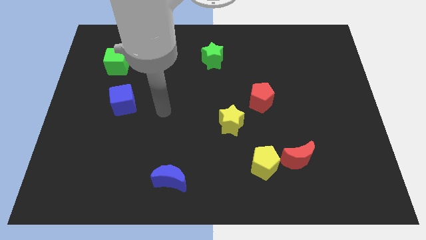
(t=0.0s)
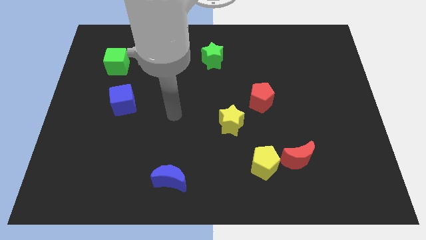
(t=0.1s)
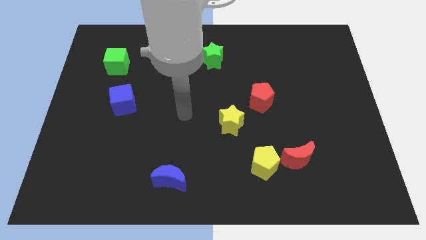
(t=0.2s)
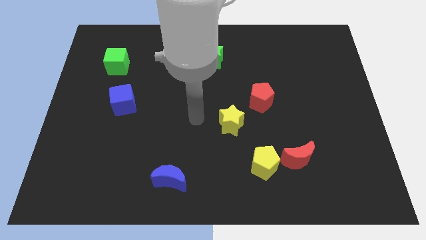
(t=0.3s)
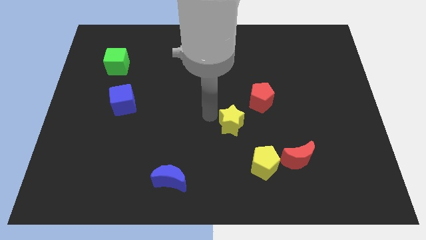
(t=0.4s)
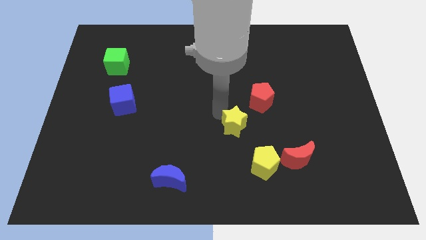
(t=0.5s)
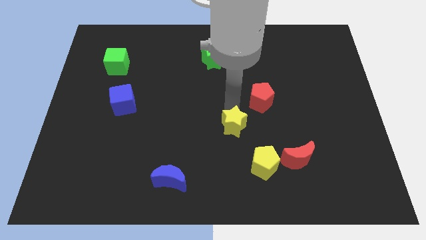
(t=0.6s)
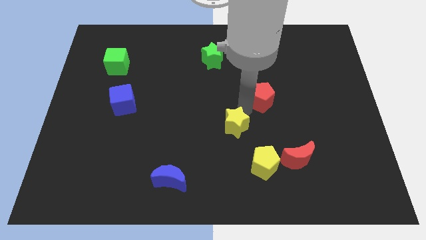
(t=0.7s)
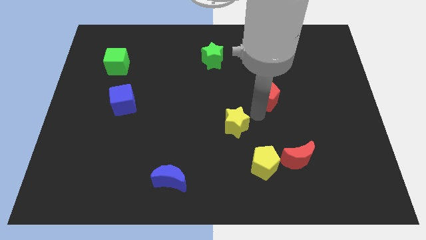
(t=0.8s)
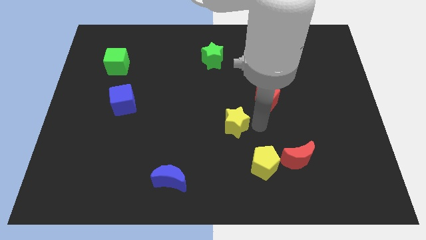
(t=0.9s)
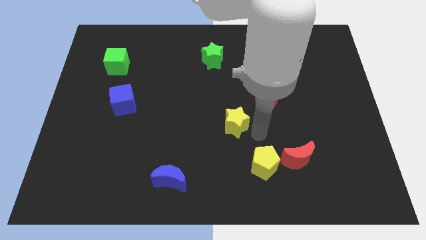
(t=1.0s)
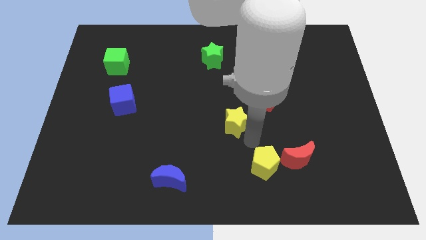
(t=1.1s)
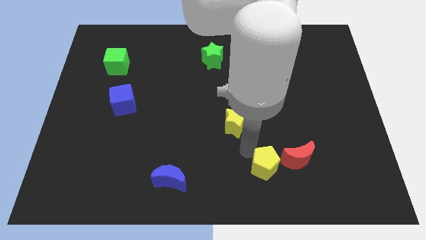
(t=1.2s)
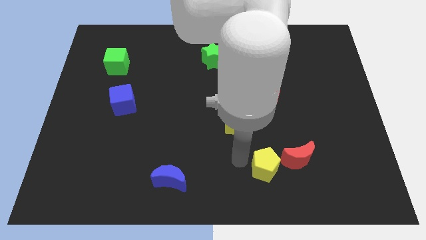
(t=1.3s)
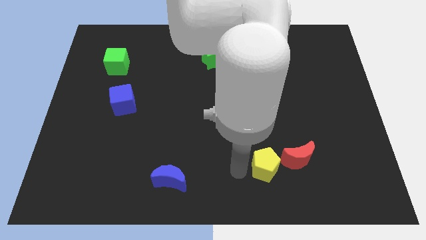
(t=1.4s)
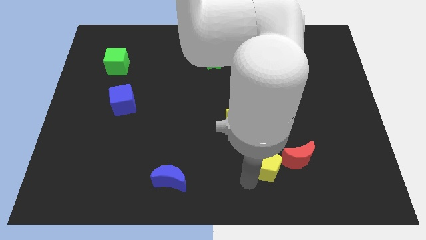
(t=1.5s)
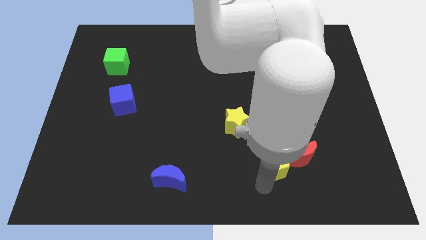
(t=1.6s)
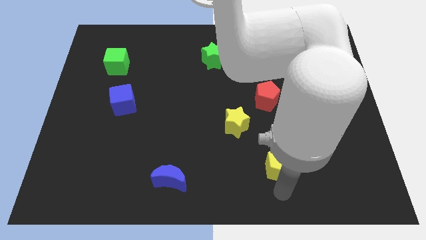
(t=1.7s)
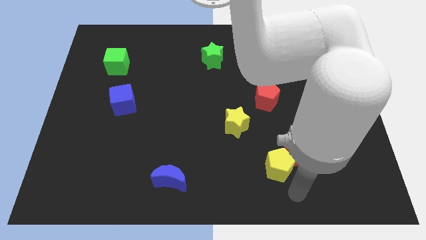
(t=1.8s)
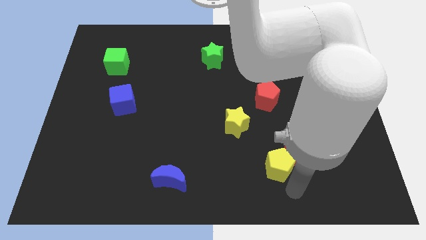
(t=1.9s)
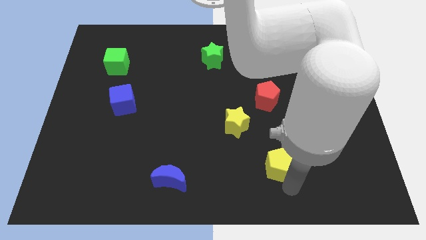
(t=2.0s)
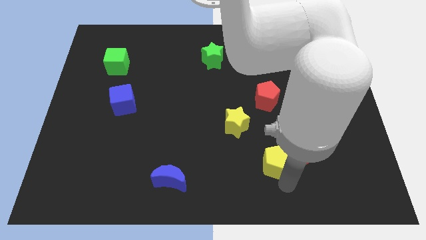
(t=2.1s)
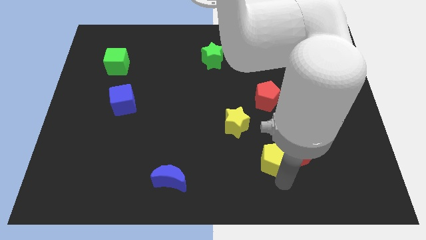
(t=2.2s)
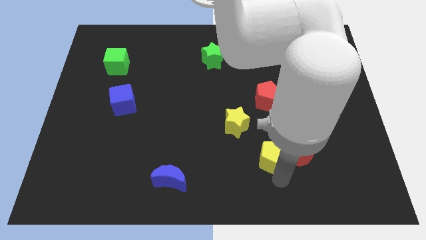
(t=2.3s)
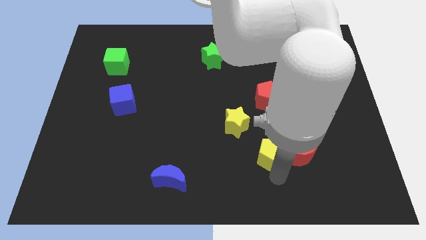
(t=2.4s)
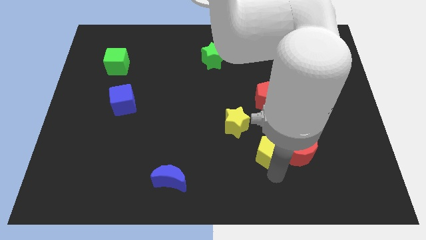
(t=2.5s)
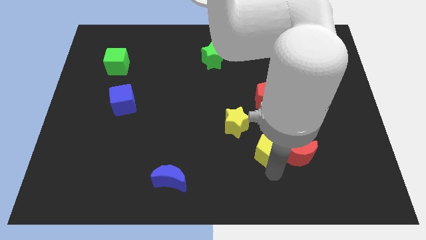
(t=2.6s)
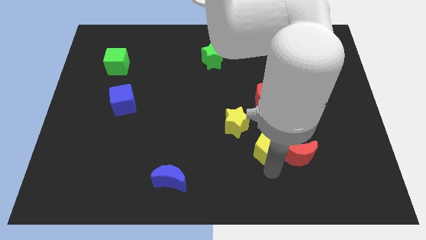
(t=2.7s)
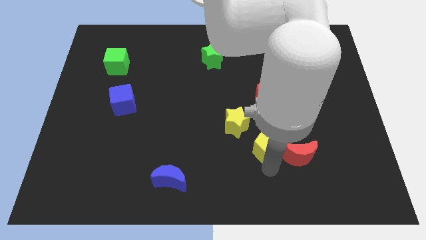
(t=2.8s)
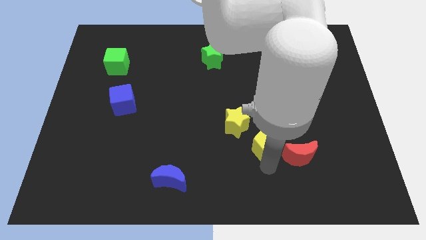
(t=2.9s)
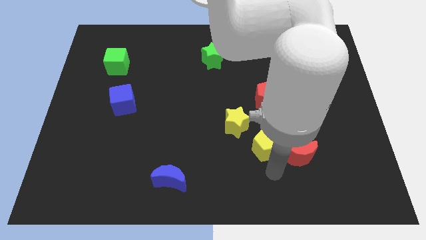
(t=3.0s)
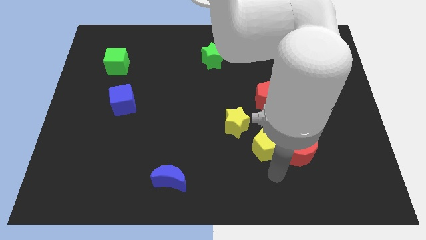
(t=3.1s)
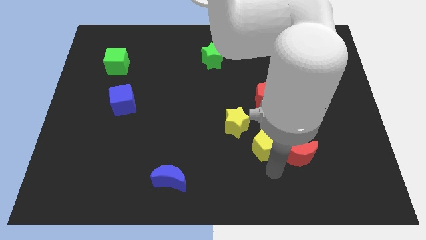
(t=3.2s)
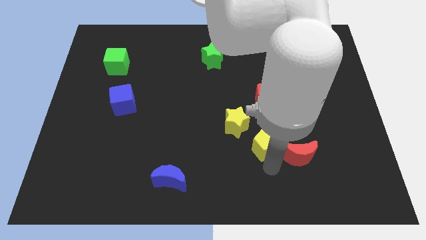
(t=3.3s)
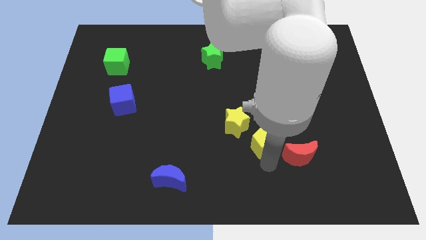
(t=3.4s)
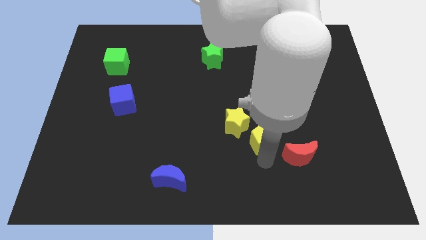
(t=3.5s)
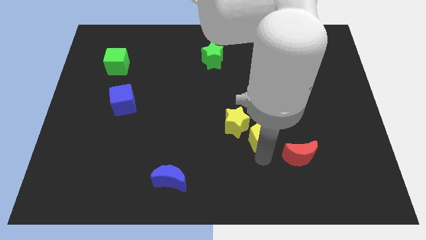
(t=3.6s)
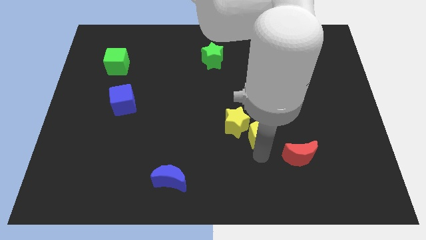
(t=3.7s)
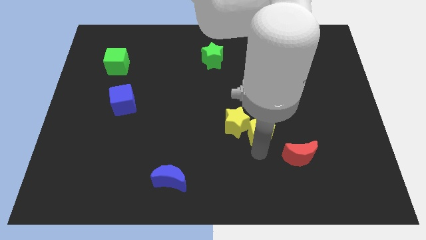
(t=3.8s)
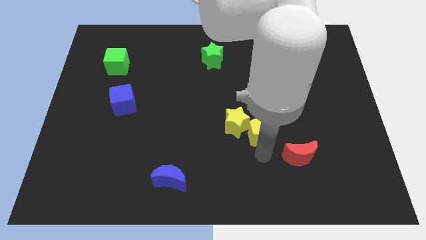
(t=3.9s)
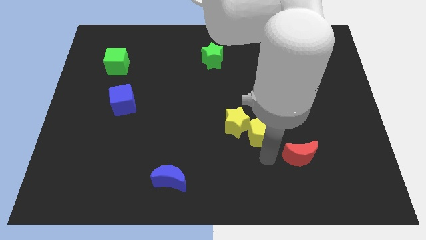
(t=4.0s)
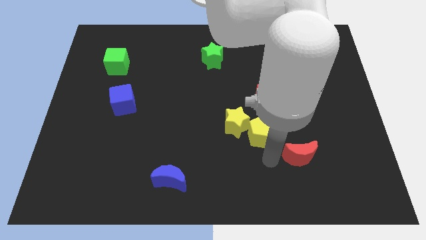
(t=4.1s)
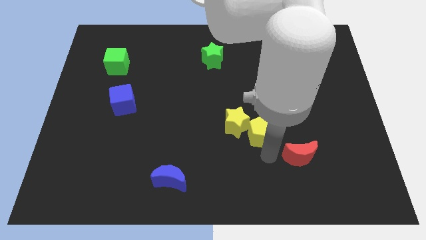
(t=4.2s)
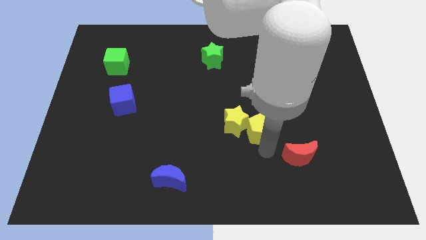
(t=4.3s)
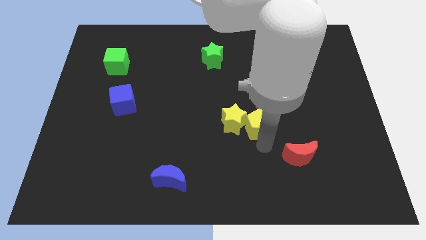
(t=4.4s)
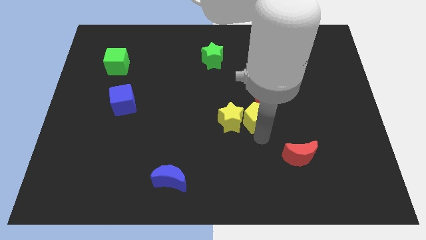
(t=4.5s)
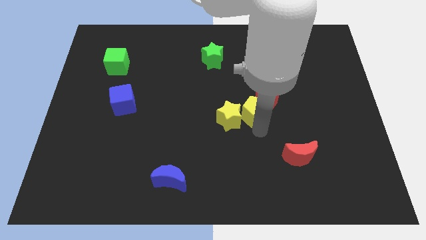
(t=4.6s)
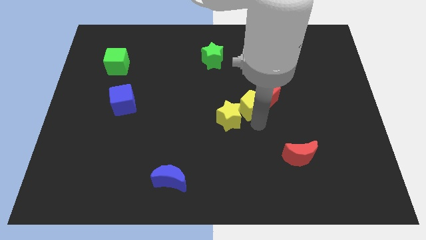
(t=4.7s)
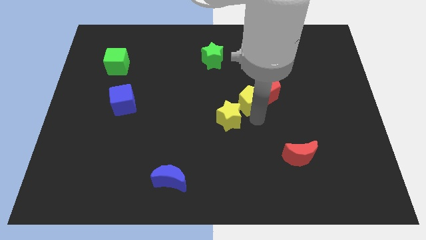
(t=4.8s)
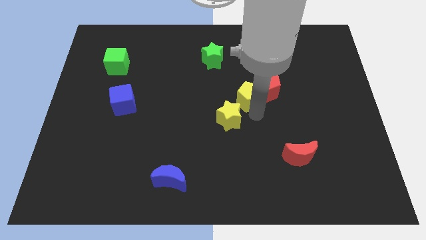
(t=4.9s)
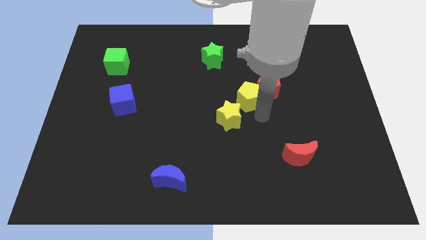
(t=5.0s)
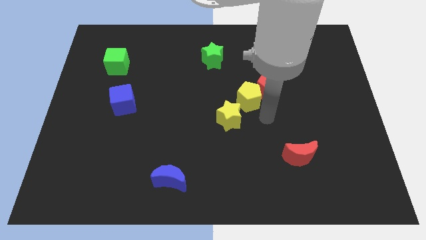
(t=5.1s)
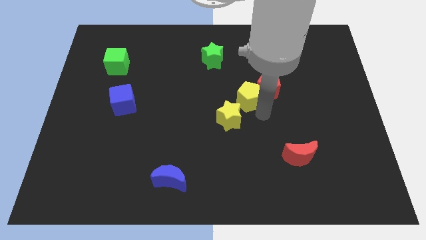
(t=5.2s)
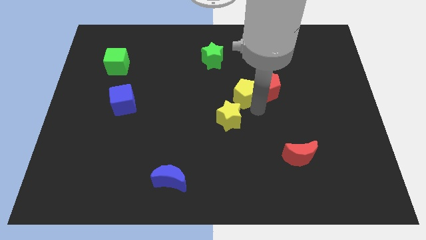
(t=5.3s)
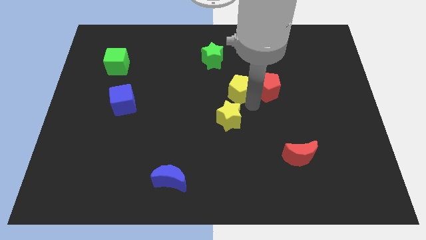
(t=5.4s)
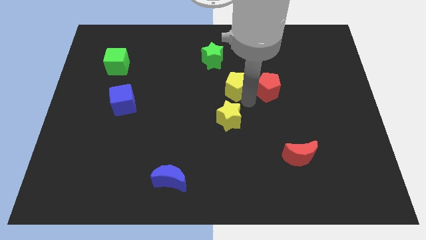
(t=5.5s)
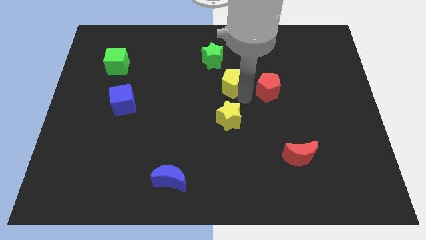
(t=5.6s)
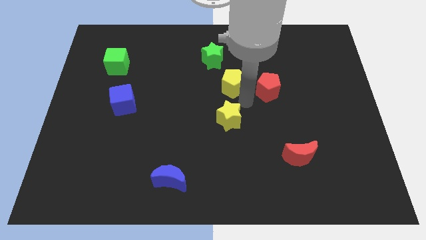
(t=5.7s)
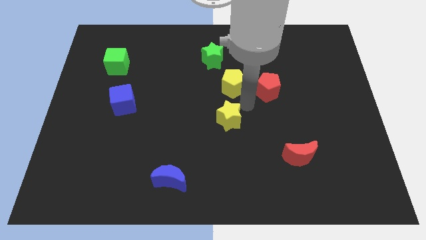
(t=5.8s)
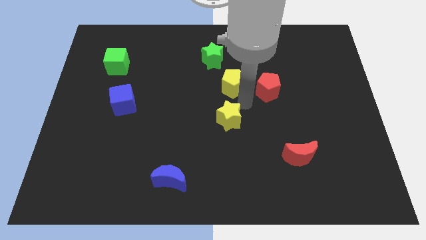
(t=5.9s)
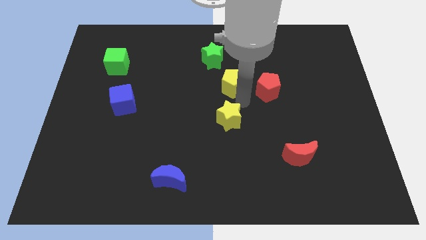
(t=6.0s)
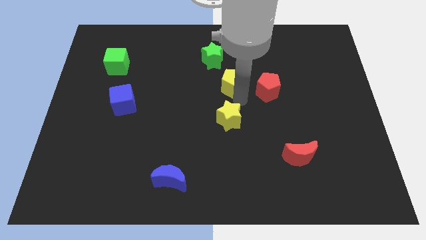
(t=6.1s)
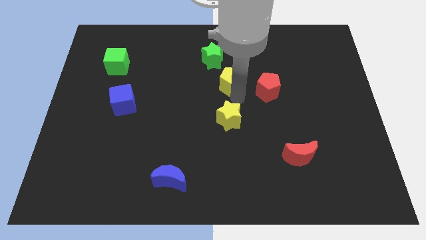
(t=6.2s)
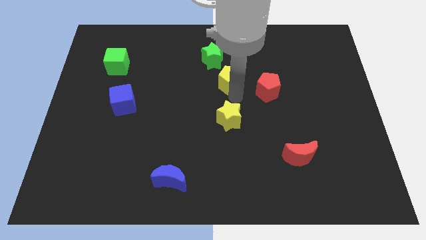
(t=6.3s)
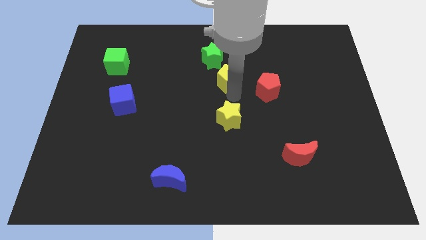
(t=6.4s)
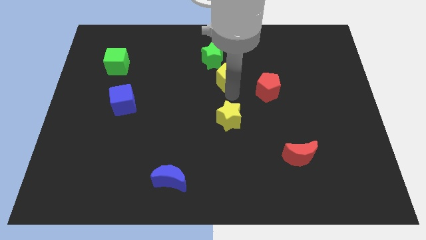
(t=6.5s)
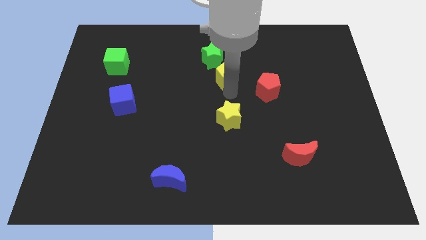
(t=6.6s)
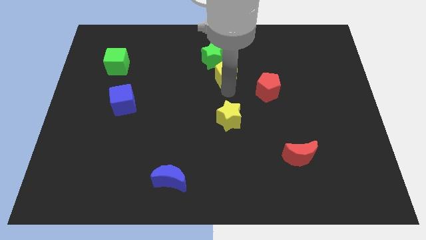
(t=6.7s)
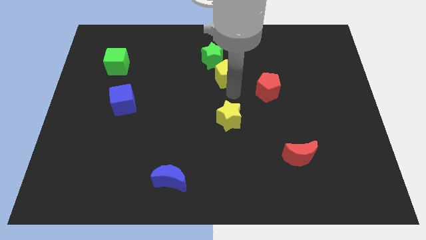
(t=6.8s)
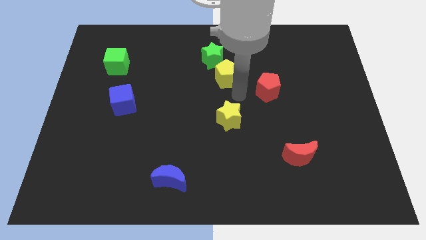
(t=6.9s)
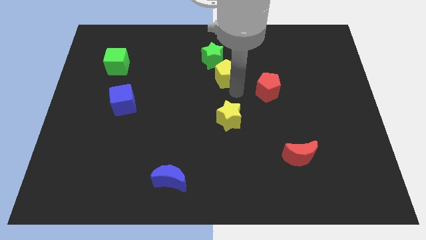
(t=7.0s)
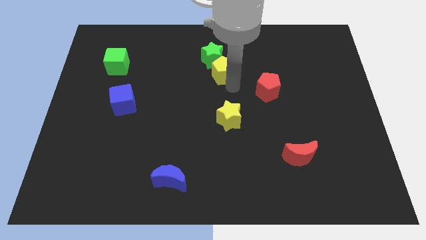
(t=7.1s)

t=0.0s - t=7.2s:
put the yellow pentagon next to the green star

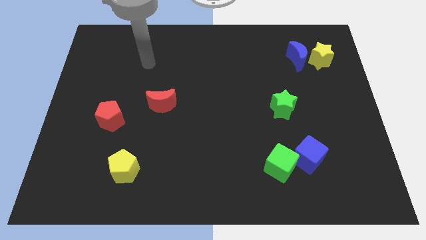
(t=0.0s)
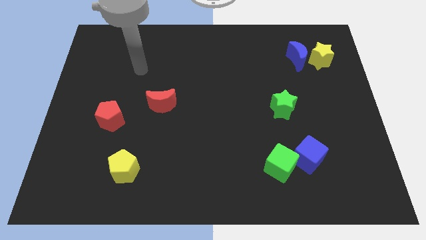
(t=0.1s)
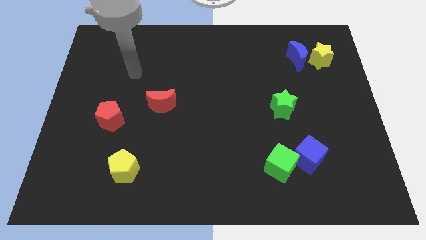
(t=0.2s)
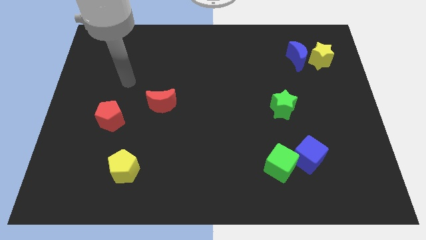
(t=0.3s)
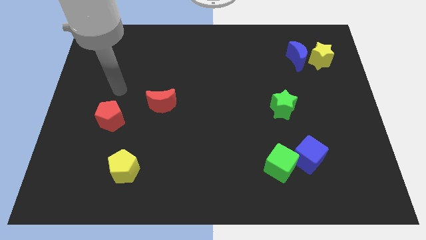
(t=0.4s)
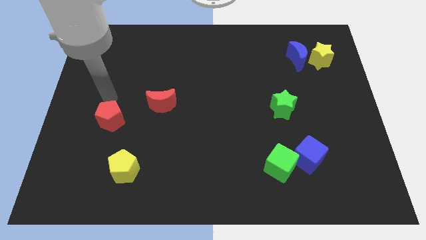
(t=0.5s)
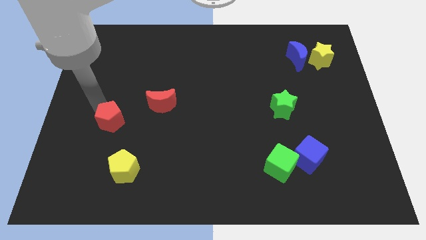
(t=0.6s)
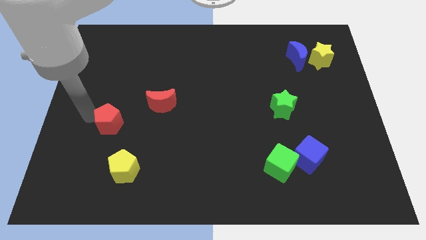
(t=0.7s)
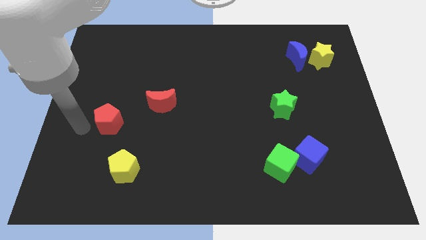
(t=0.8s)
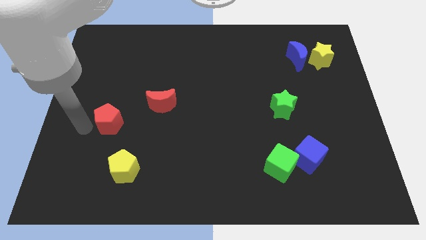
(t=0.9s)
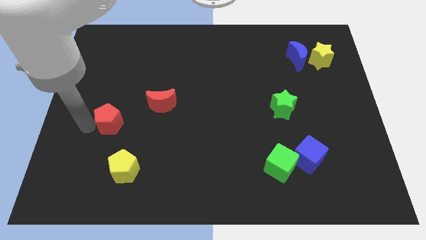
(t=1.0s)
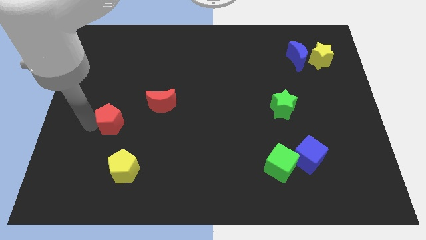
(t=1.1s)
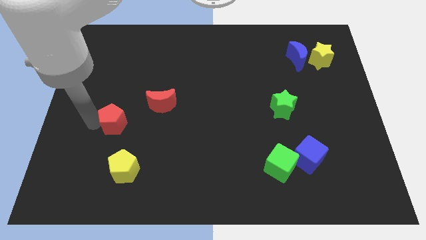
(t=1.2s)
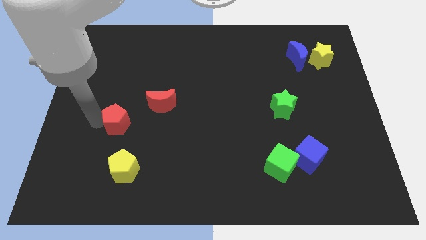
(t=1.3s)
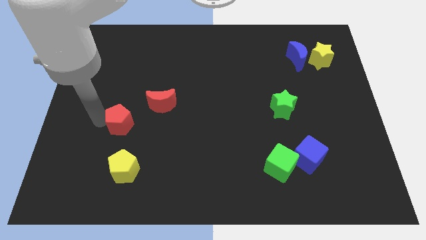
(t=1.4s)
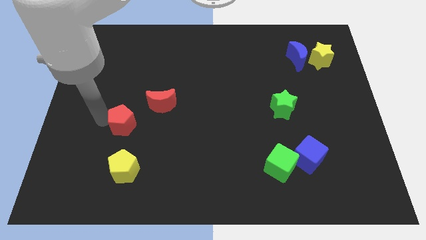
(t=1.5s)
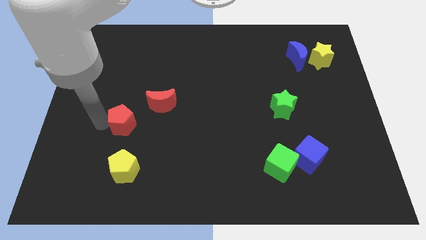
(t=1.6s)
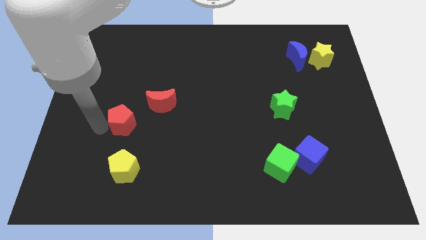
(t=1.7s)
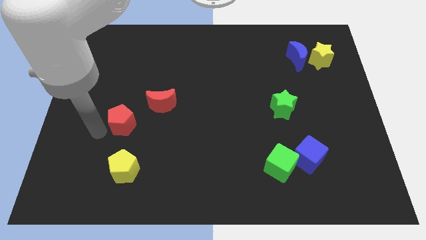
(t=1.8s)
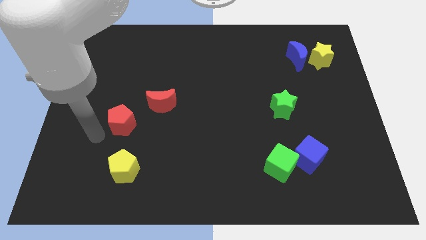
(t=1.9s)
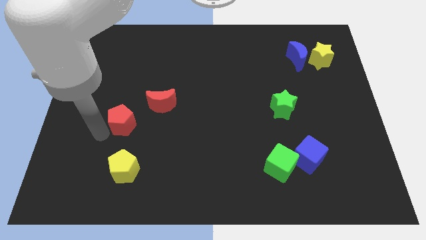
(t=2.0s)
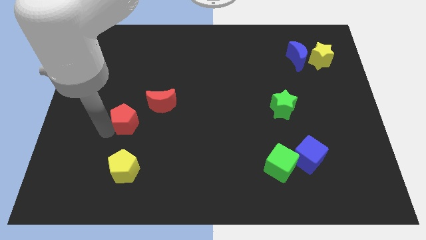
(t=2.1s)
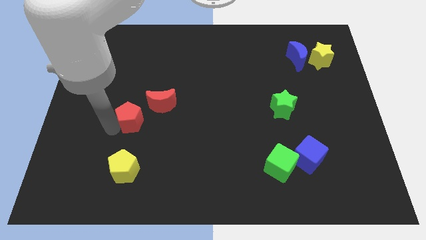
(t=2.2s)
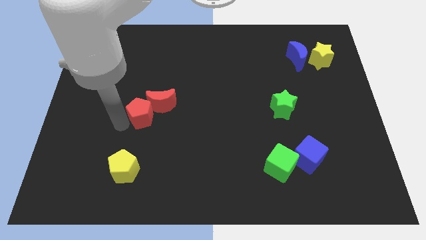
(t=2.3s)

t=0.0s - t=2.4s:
move the red pentagon next to the red moon
